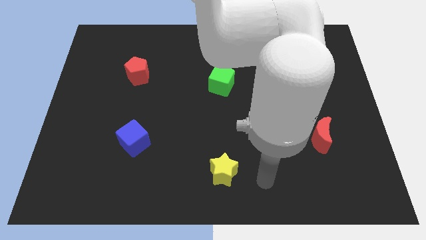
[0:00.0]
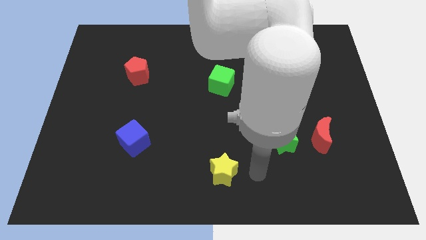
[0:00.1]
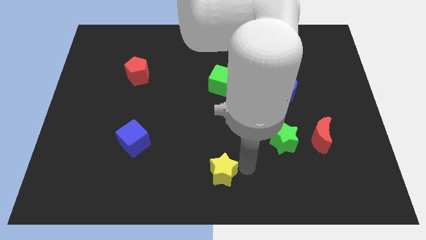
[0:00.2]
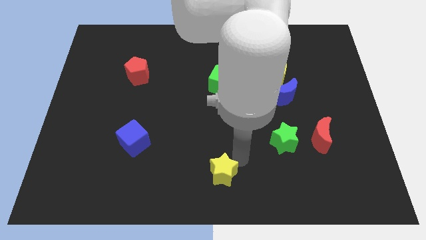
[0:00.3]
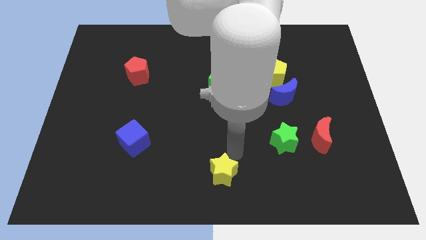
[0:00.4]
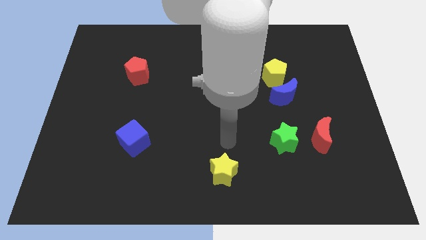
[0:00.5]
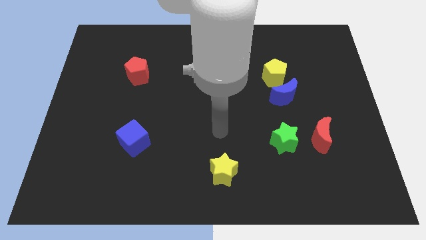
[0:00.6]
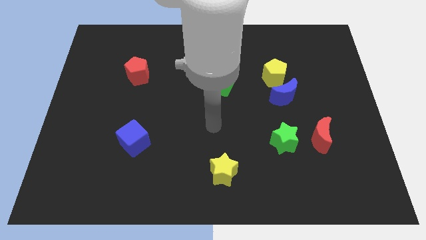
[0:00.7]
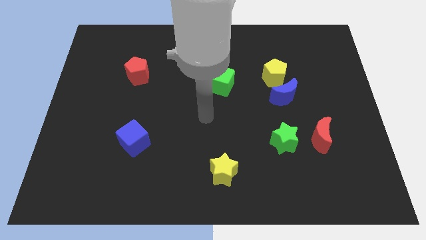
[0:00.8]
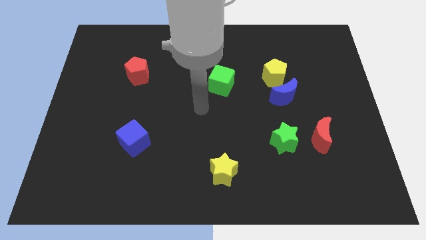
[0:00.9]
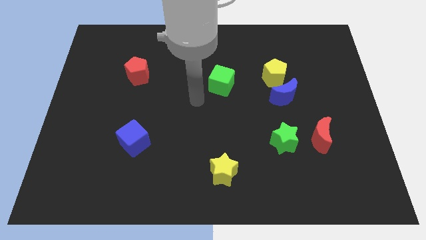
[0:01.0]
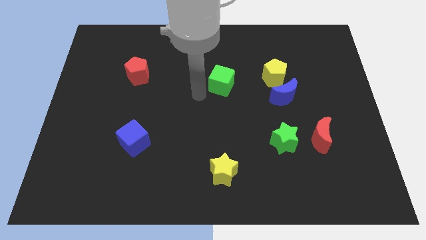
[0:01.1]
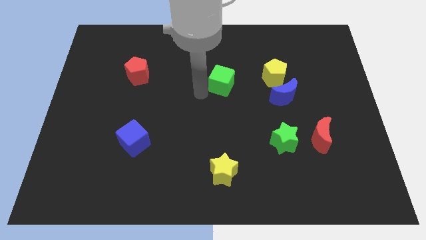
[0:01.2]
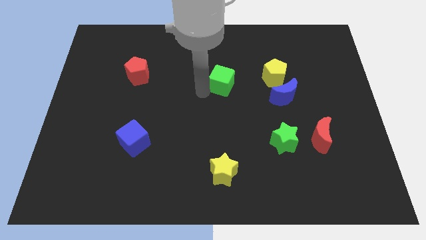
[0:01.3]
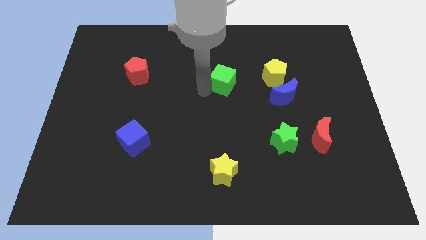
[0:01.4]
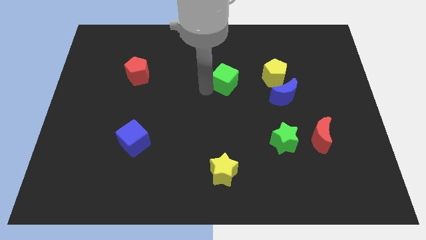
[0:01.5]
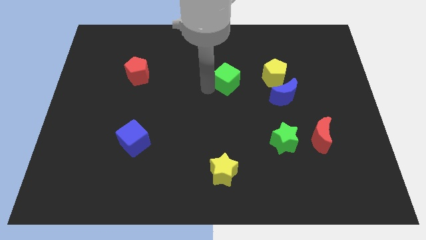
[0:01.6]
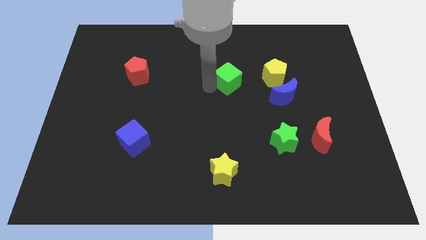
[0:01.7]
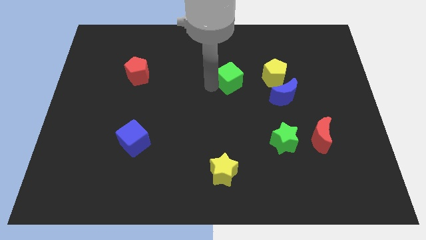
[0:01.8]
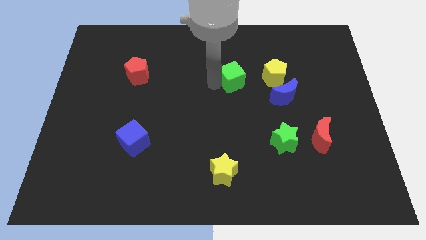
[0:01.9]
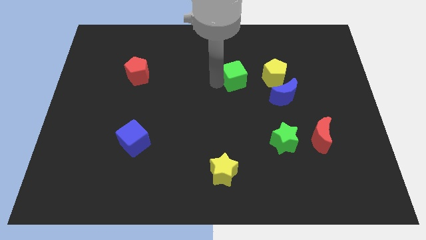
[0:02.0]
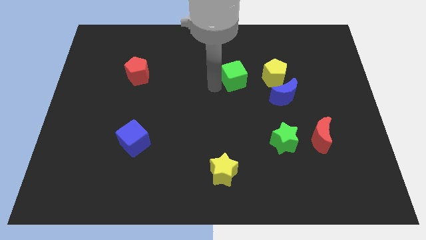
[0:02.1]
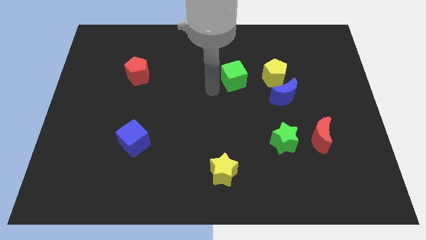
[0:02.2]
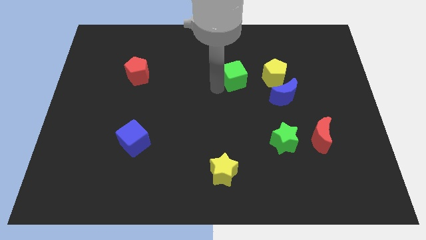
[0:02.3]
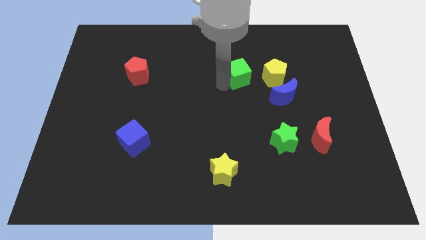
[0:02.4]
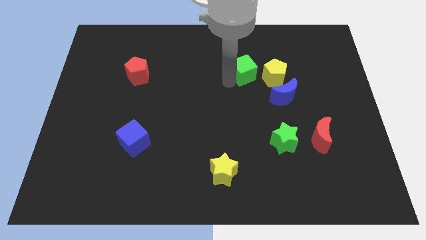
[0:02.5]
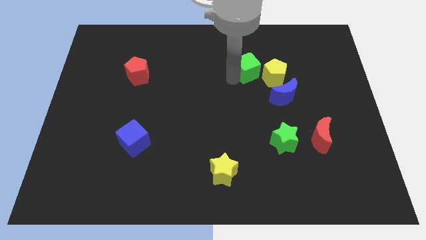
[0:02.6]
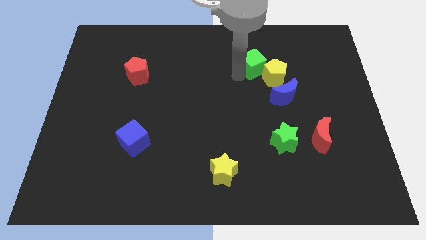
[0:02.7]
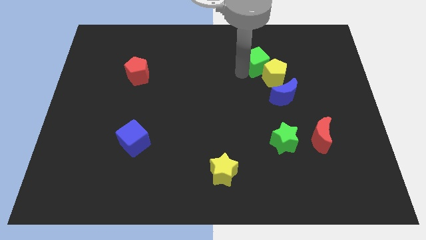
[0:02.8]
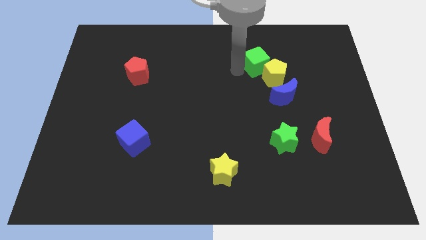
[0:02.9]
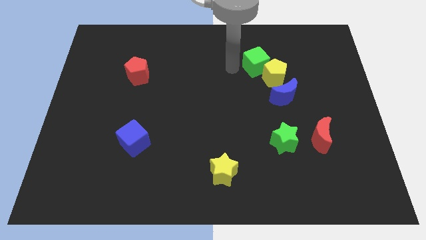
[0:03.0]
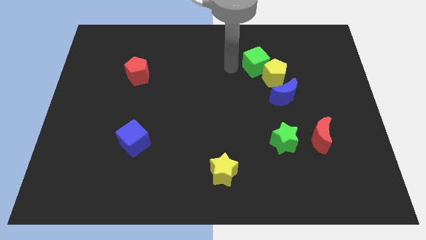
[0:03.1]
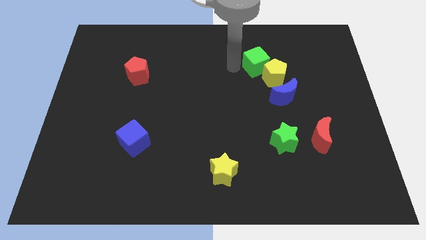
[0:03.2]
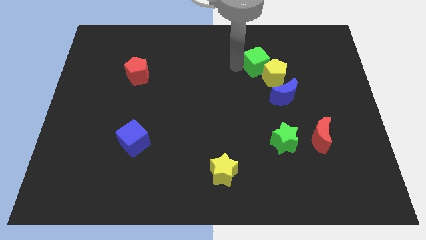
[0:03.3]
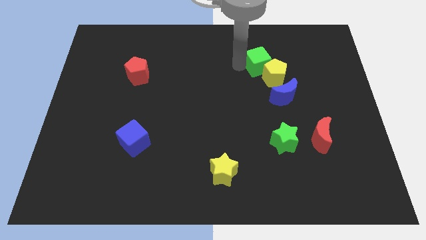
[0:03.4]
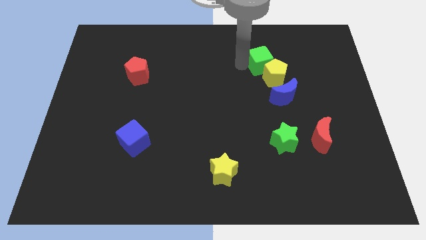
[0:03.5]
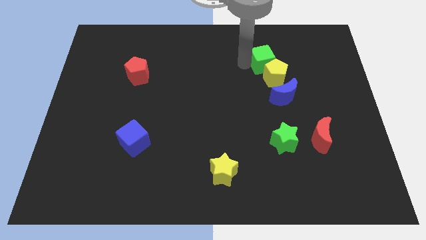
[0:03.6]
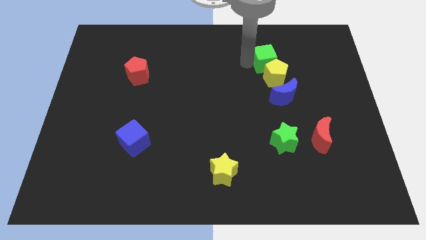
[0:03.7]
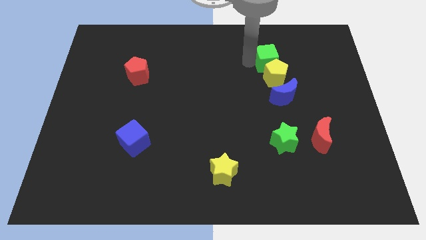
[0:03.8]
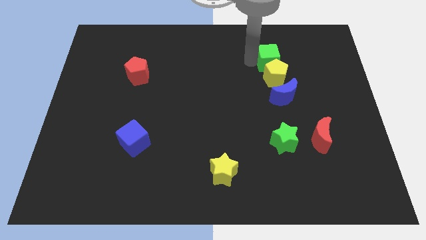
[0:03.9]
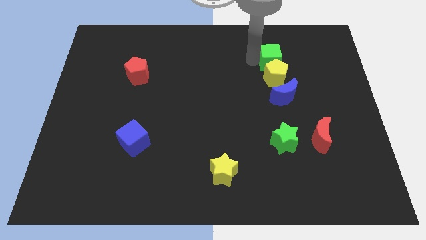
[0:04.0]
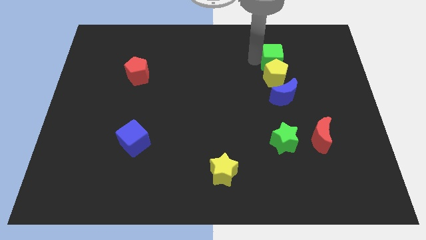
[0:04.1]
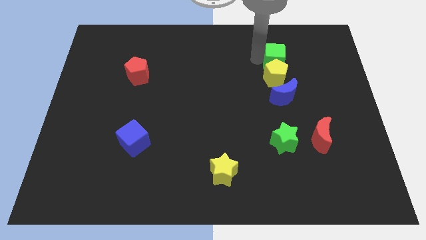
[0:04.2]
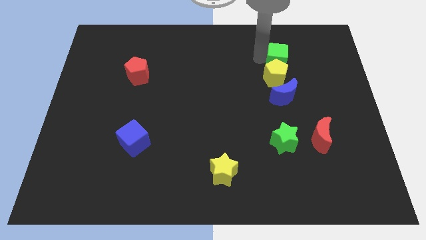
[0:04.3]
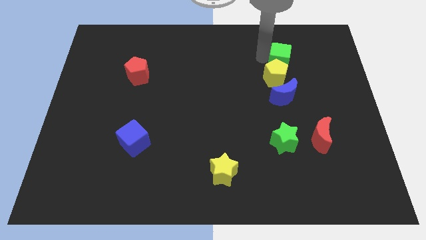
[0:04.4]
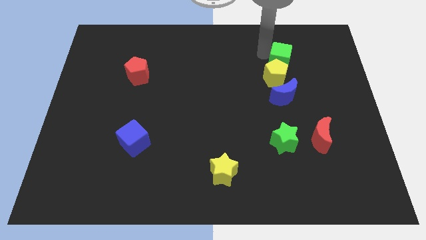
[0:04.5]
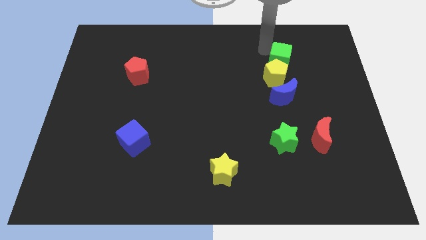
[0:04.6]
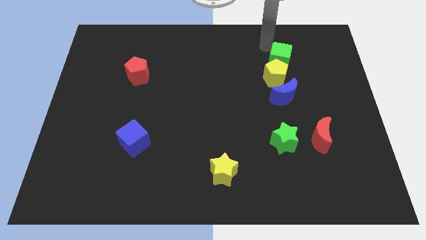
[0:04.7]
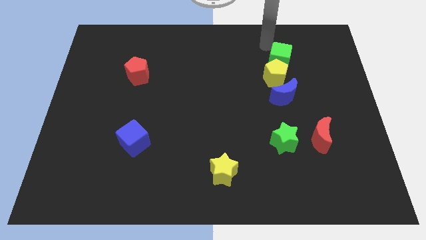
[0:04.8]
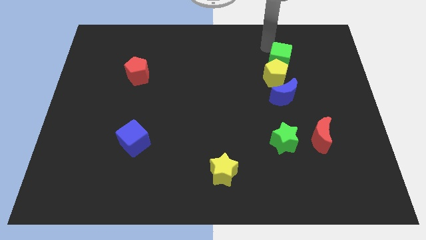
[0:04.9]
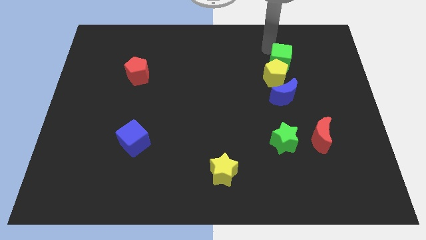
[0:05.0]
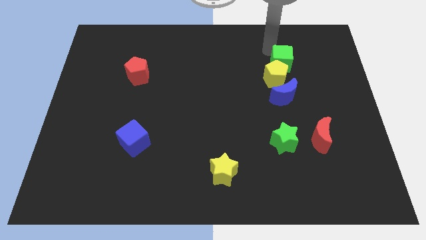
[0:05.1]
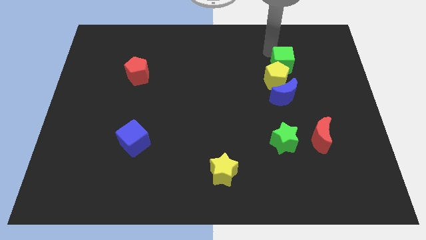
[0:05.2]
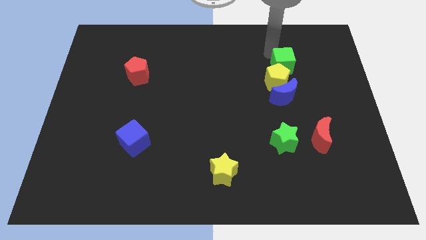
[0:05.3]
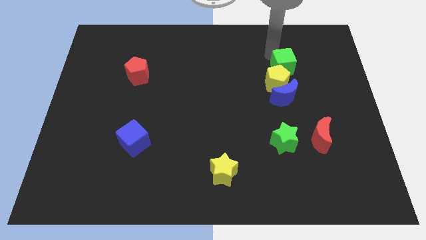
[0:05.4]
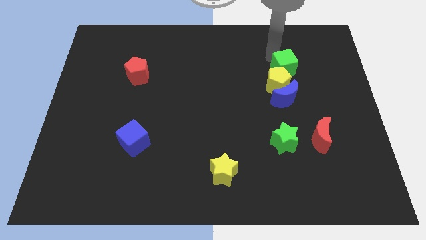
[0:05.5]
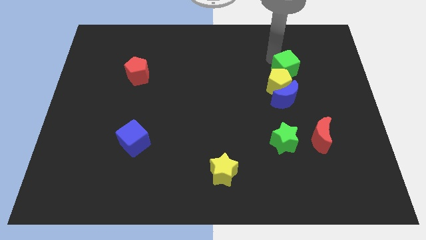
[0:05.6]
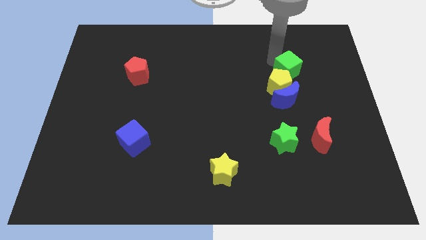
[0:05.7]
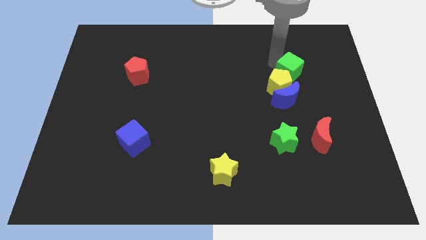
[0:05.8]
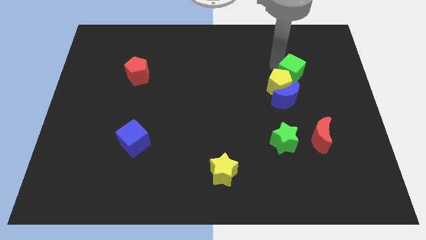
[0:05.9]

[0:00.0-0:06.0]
put the green cube to the top right of the blue moon

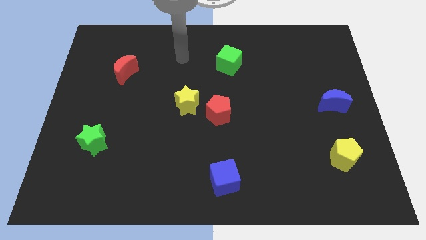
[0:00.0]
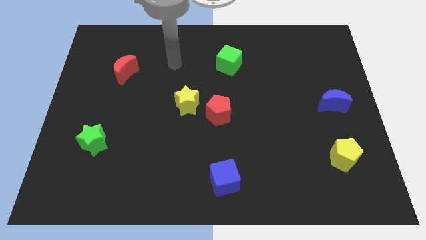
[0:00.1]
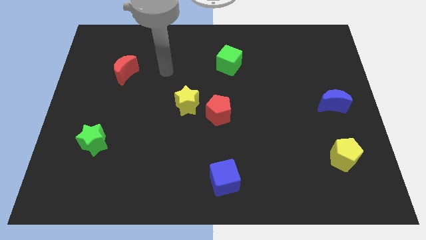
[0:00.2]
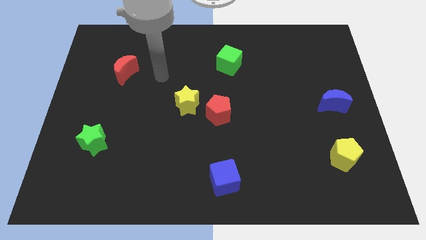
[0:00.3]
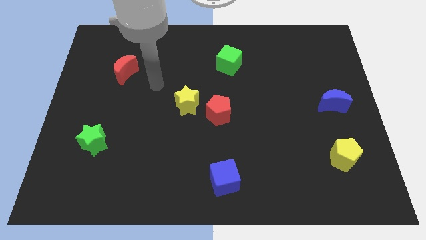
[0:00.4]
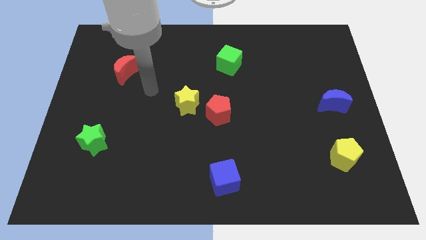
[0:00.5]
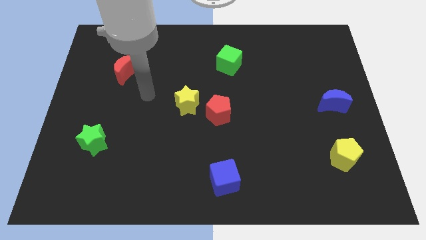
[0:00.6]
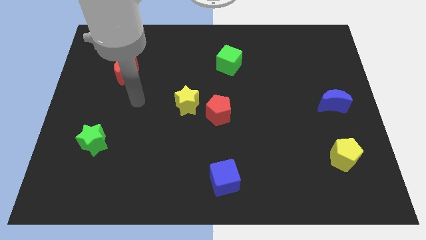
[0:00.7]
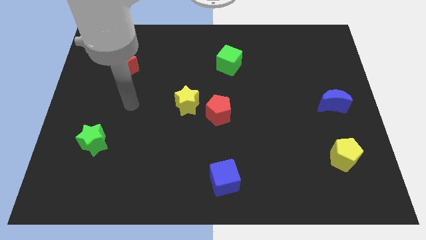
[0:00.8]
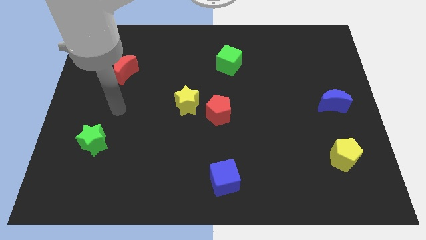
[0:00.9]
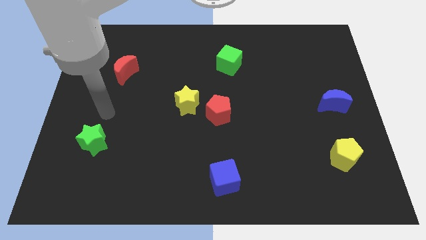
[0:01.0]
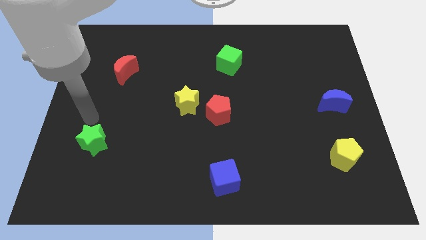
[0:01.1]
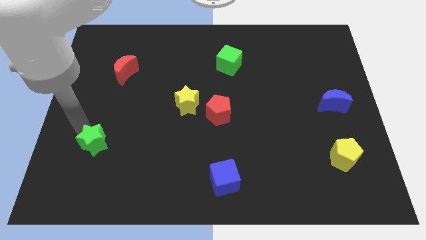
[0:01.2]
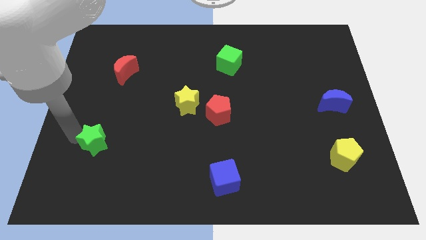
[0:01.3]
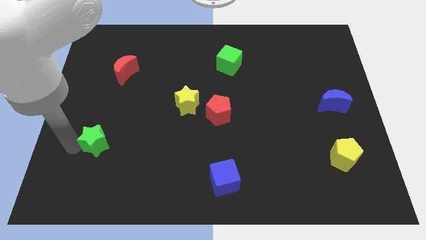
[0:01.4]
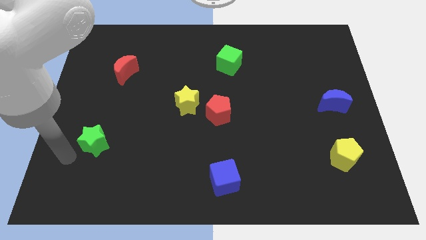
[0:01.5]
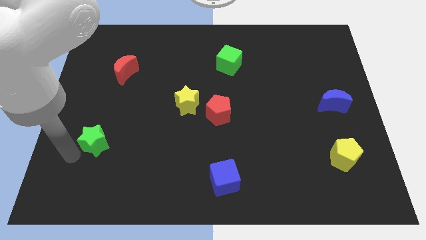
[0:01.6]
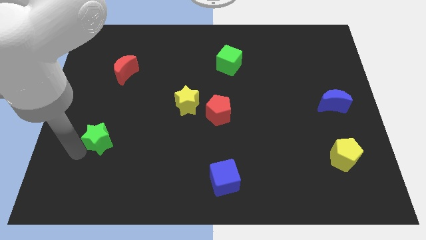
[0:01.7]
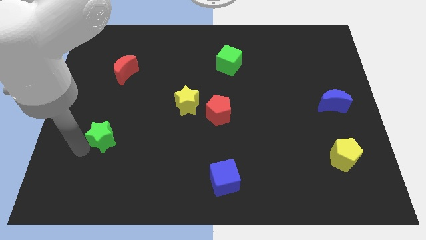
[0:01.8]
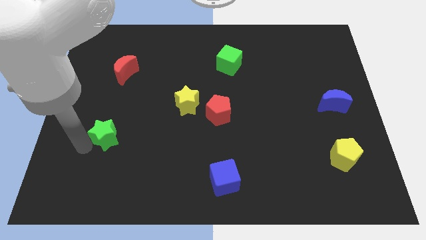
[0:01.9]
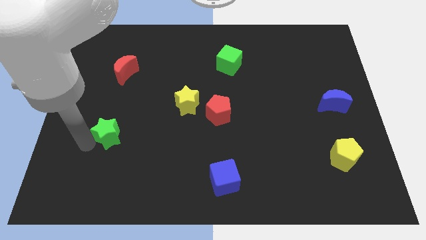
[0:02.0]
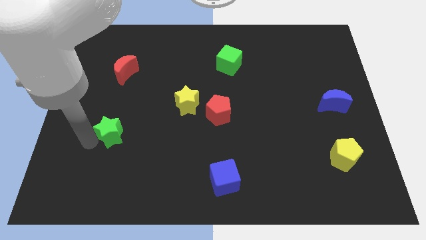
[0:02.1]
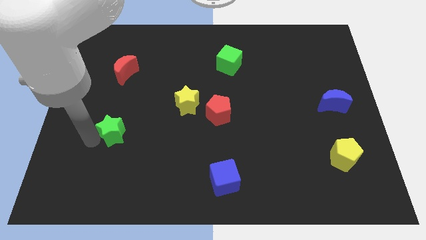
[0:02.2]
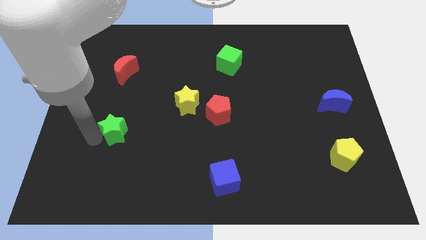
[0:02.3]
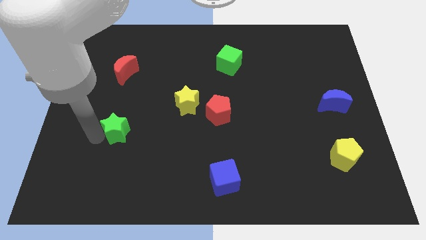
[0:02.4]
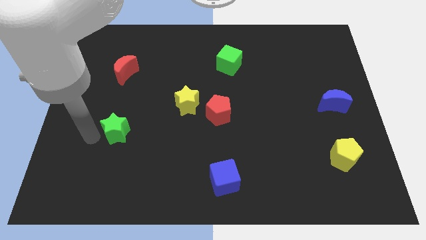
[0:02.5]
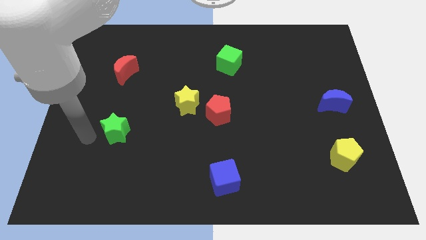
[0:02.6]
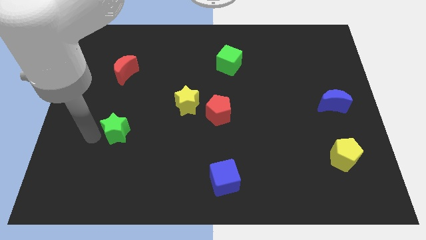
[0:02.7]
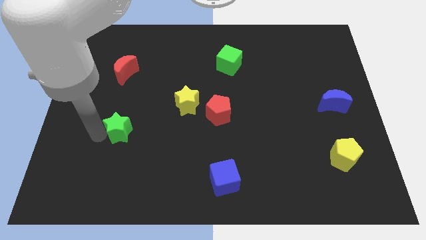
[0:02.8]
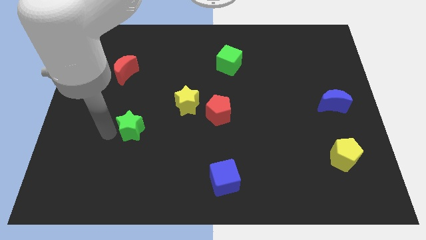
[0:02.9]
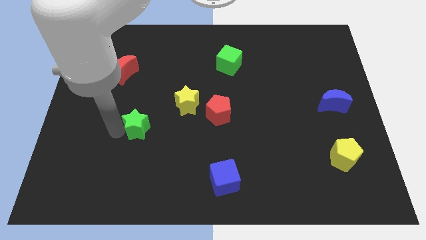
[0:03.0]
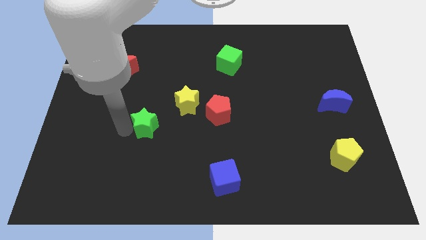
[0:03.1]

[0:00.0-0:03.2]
slide the green star diagonally down and to the left of the yellow star
